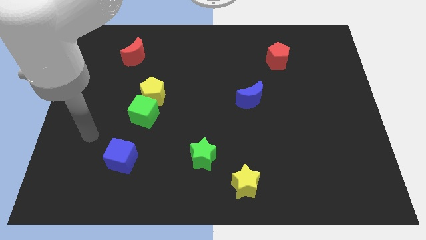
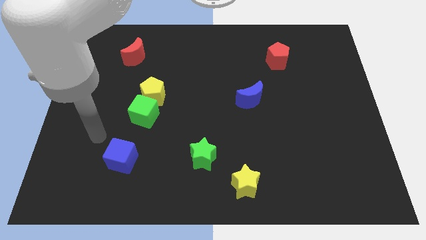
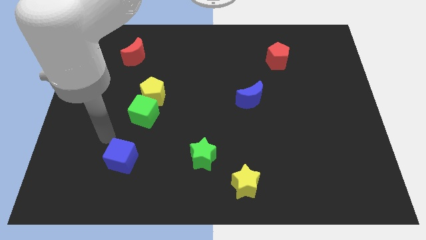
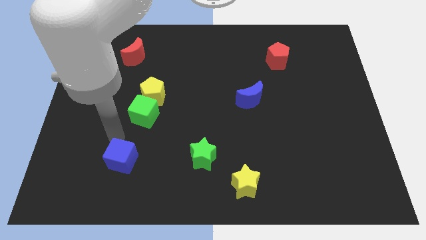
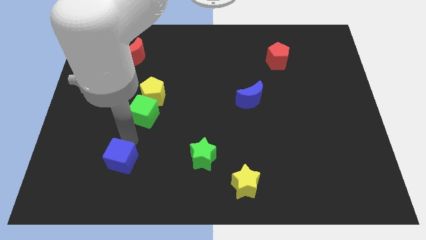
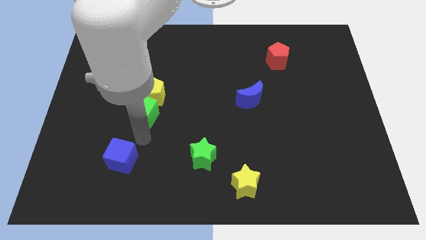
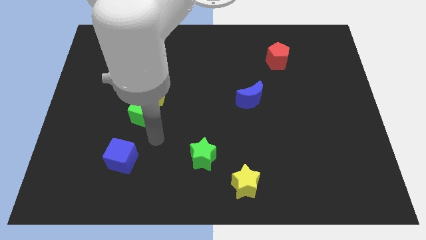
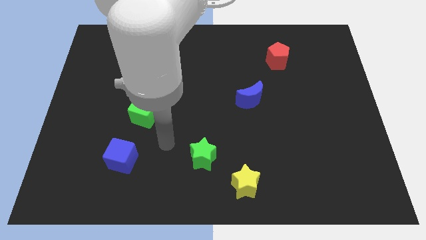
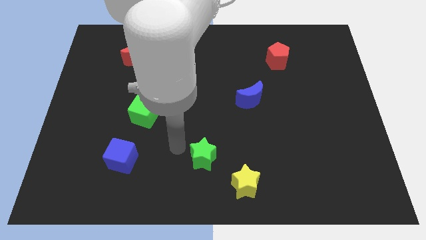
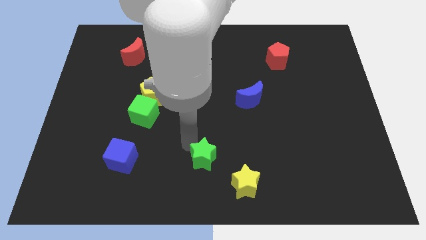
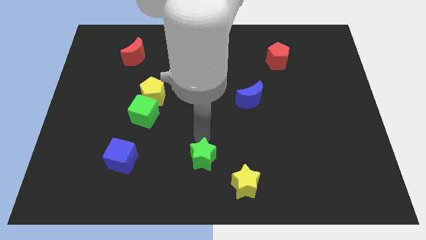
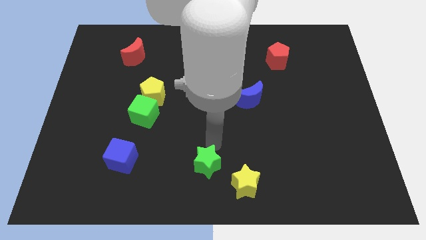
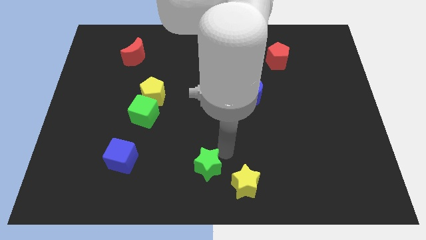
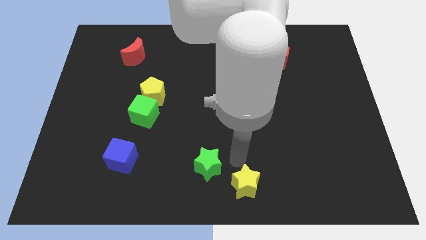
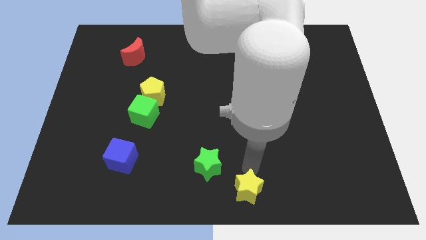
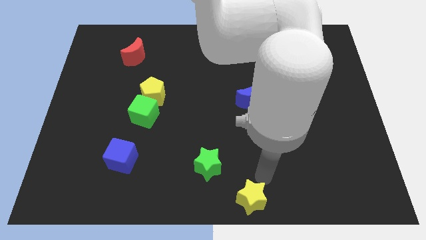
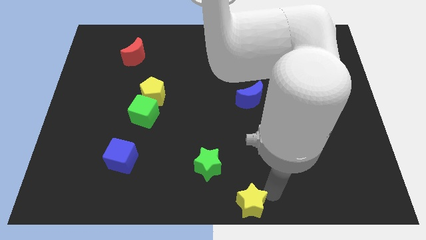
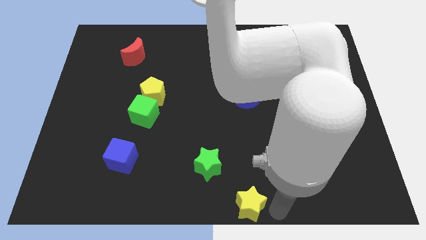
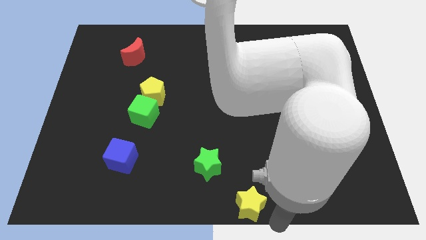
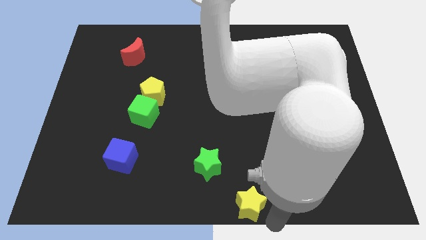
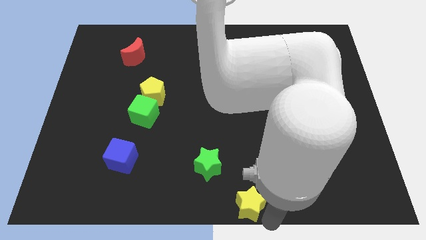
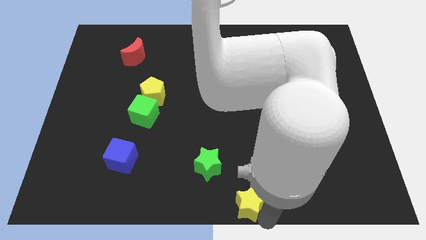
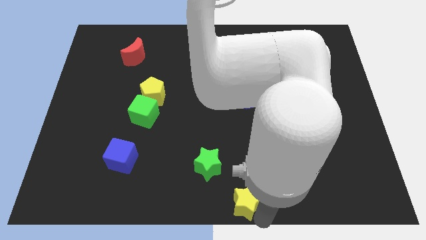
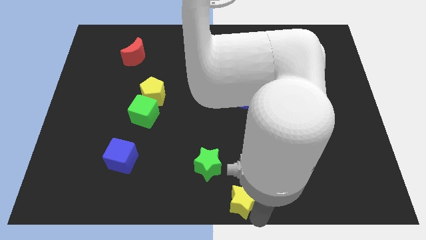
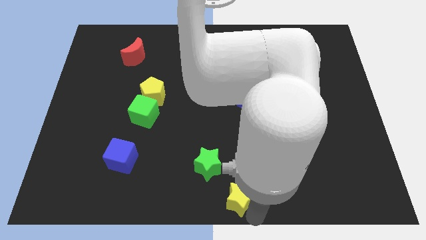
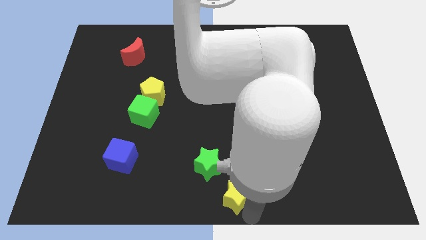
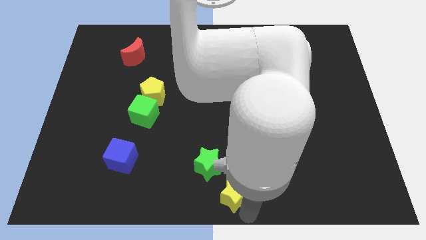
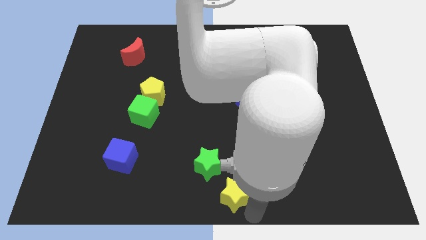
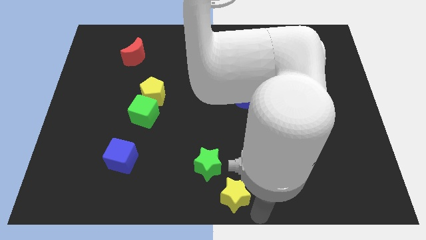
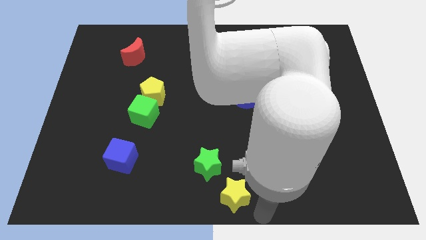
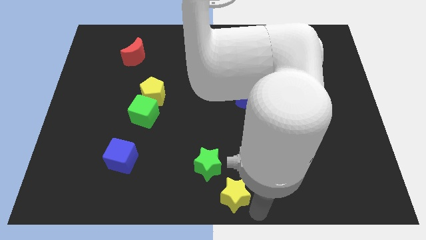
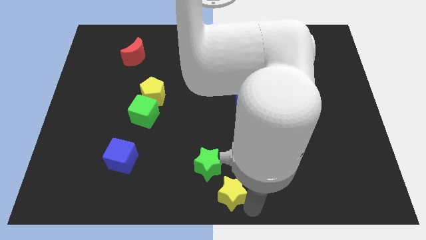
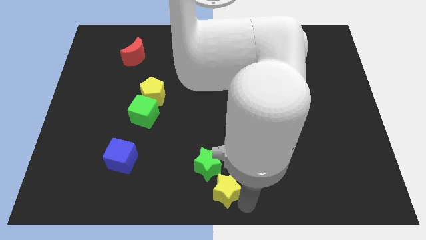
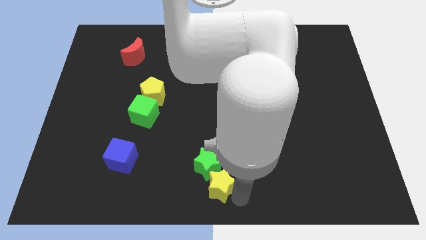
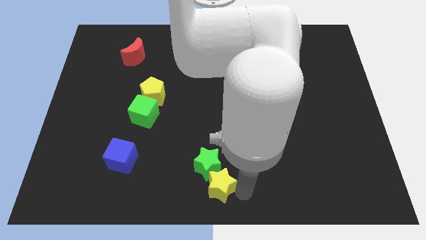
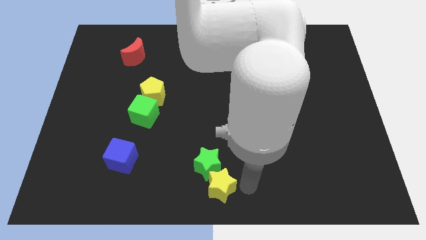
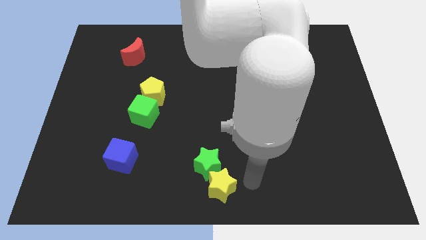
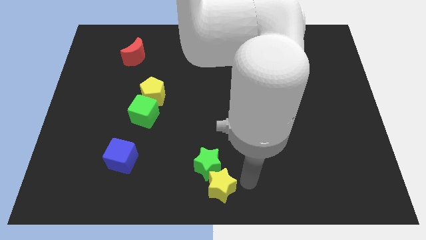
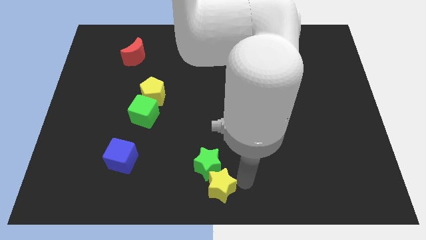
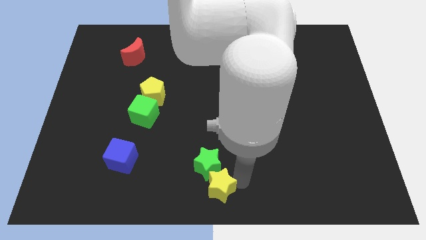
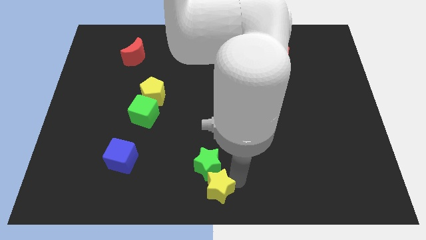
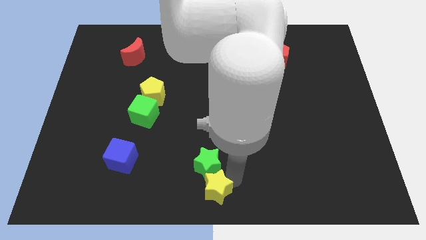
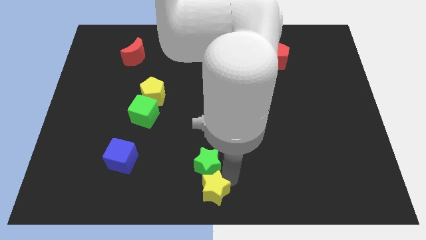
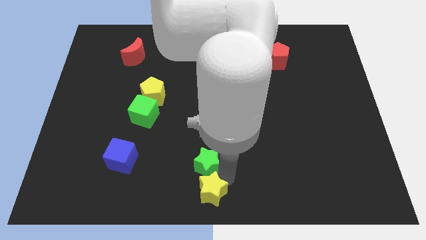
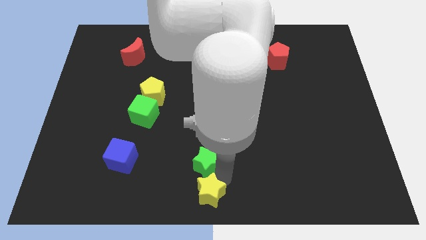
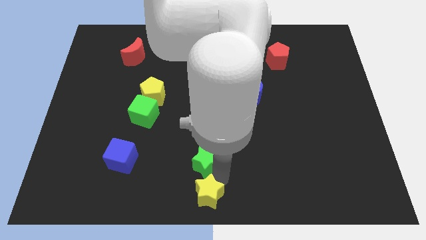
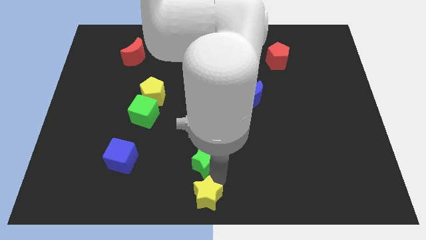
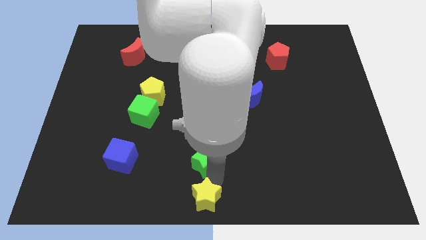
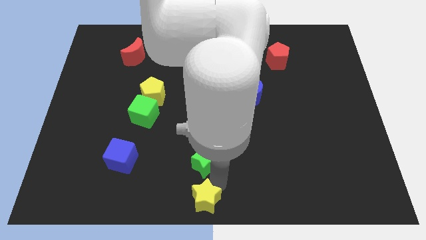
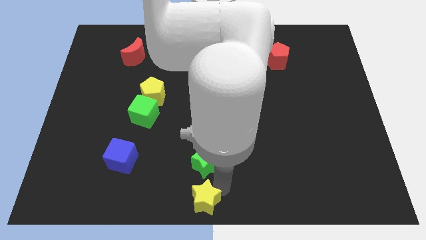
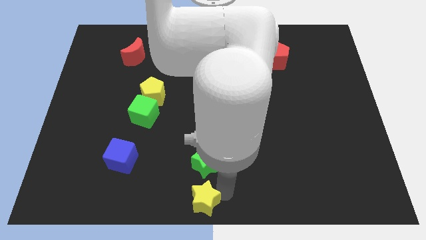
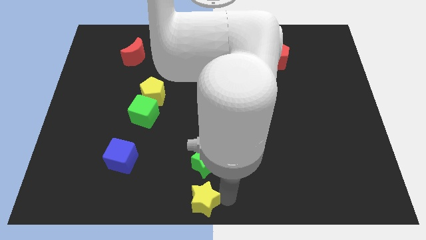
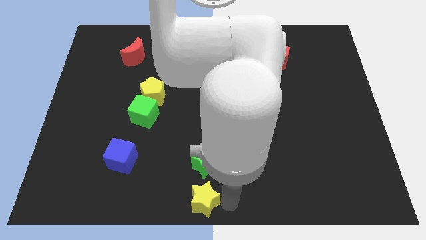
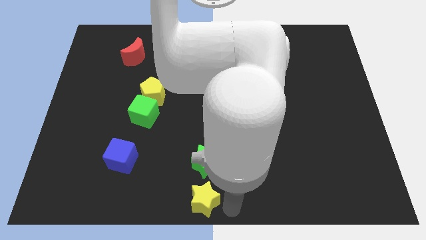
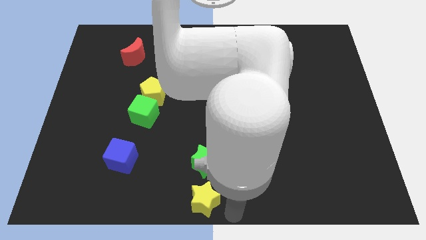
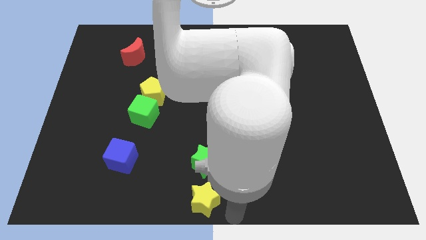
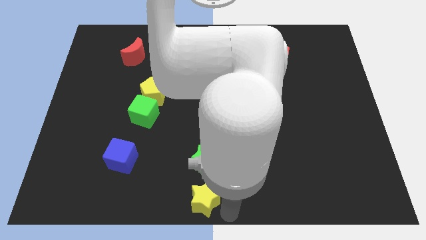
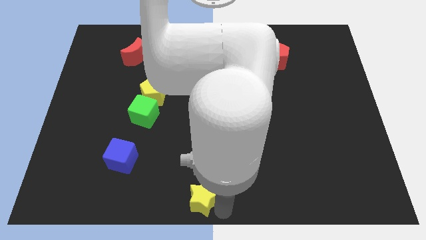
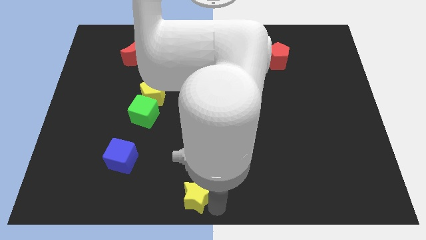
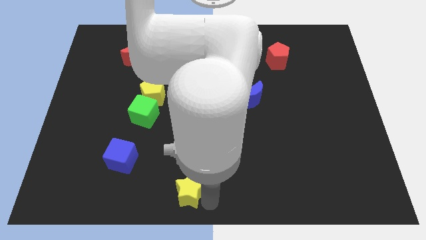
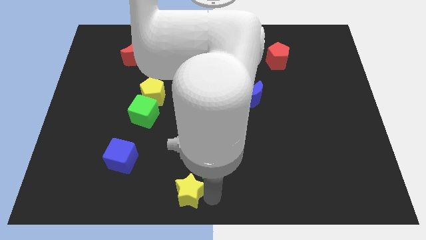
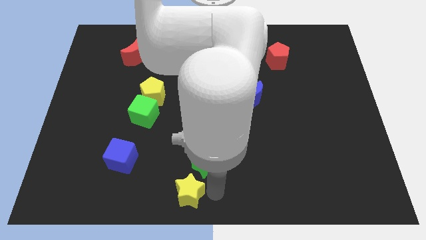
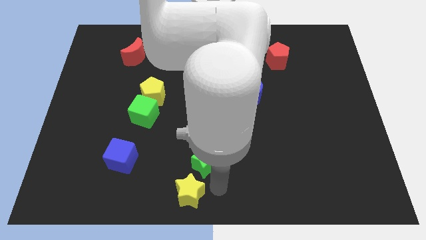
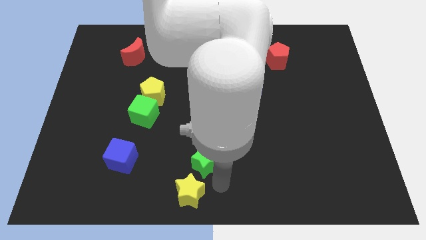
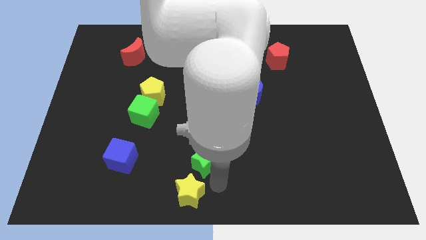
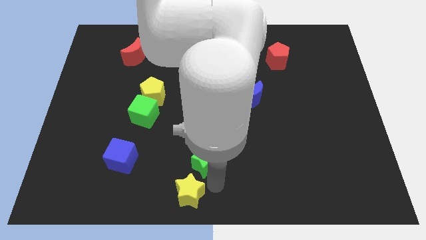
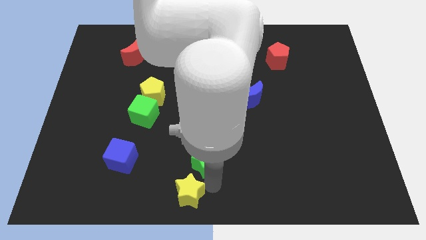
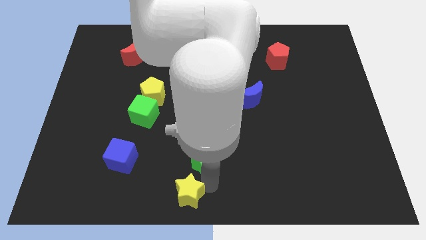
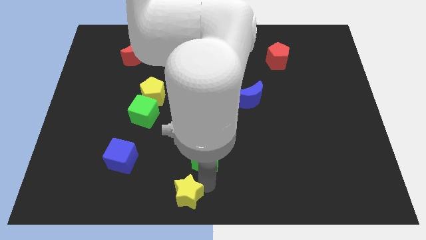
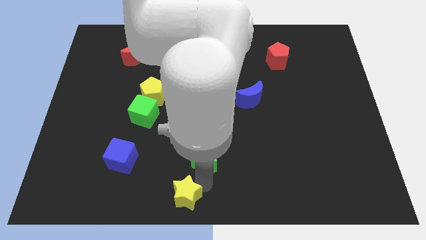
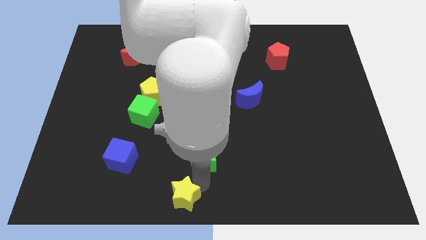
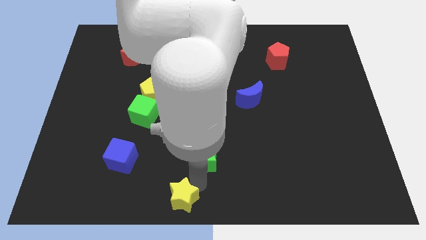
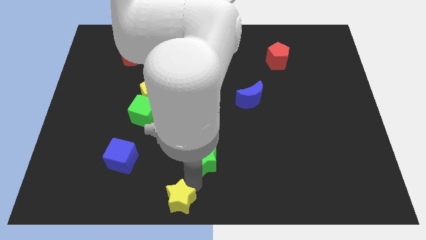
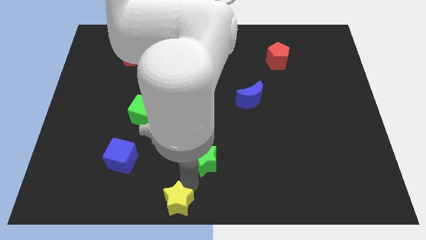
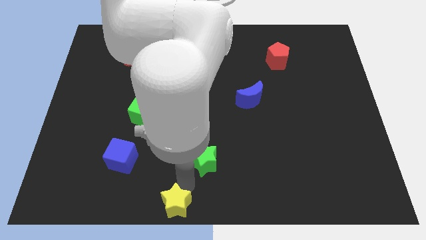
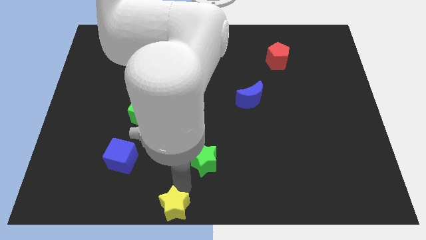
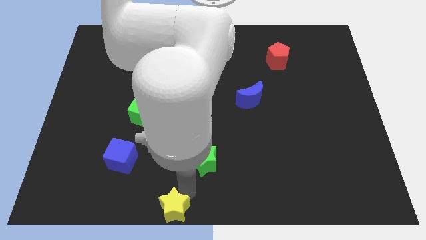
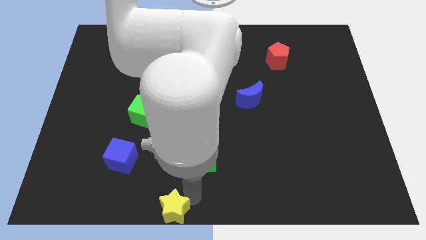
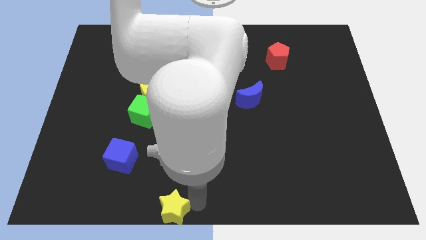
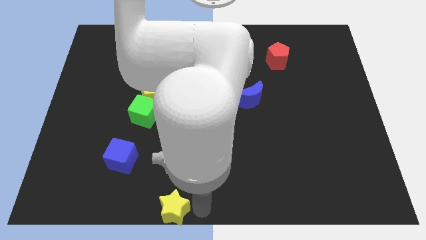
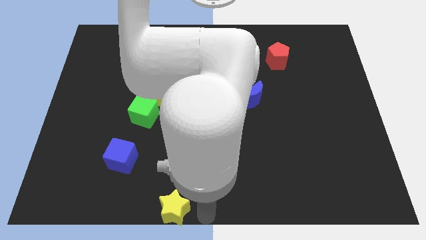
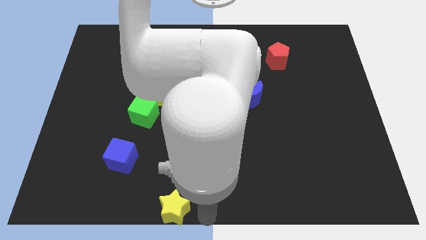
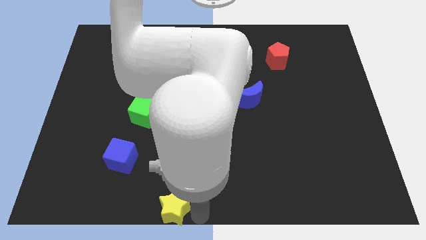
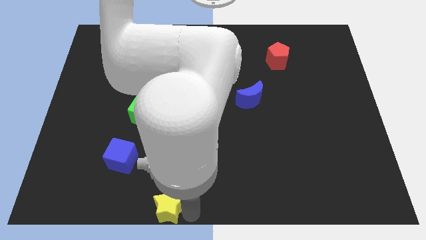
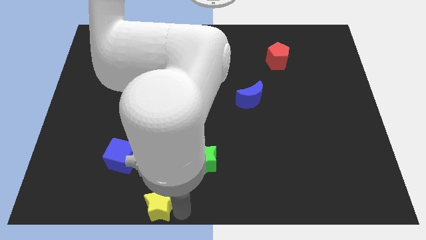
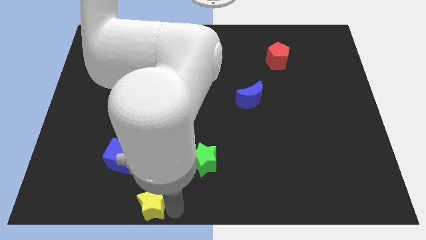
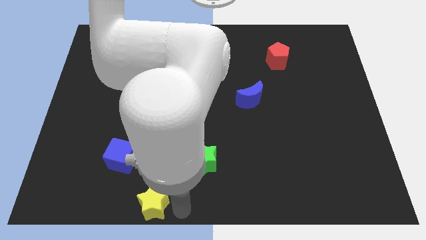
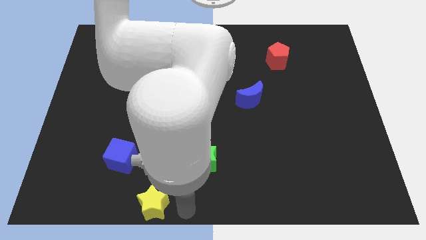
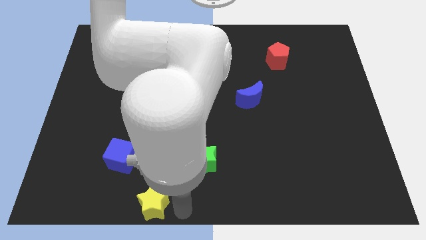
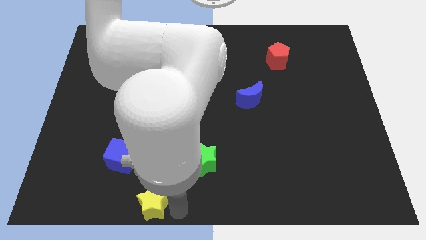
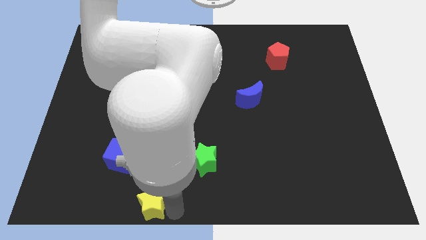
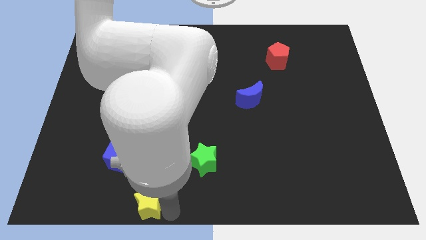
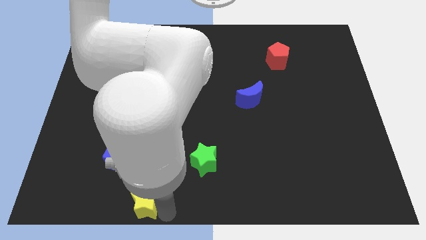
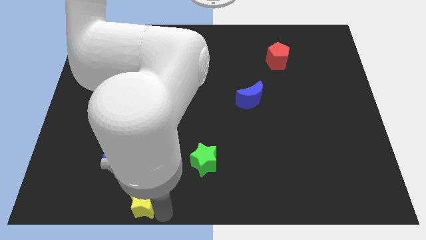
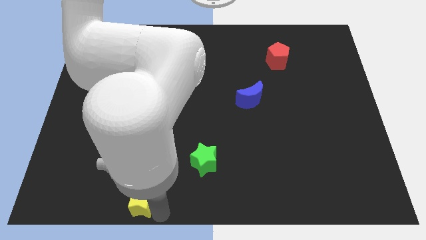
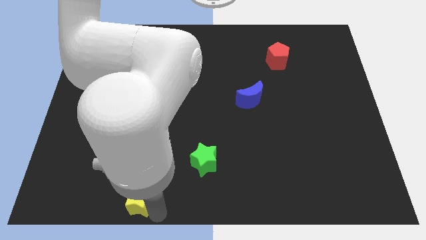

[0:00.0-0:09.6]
slide the yellow star to the left
